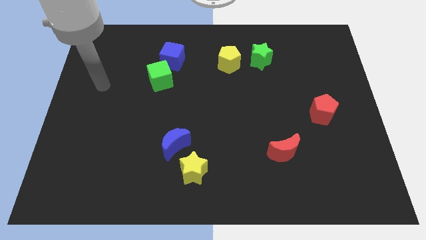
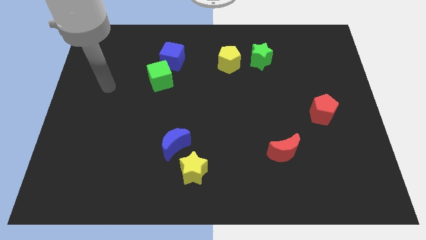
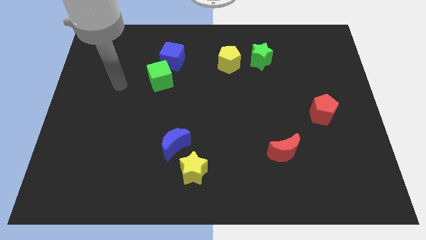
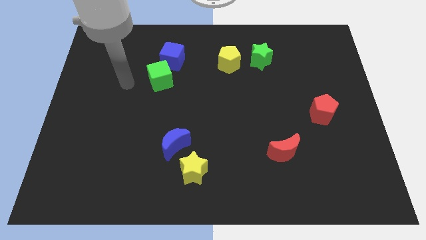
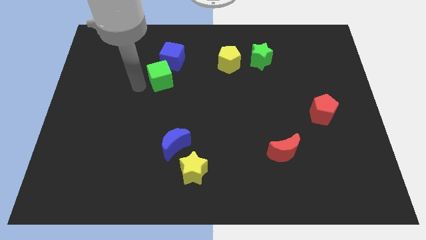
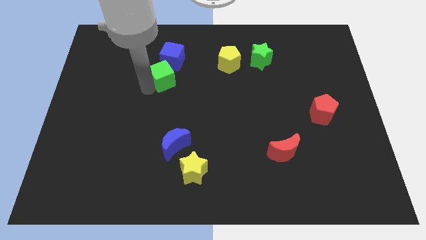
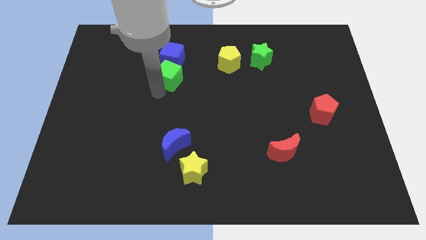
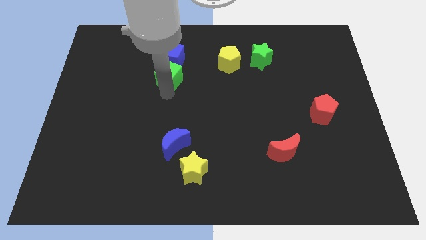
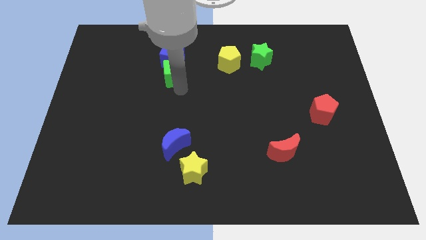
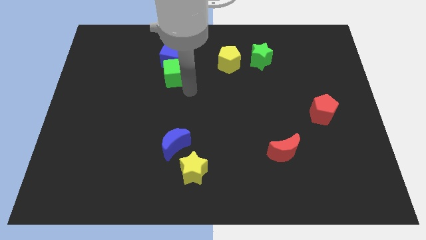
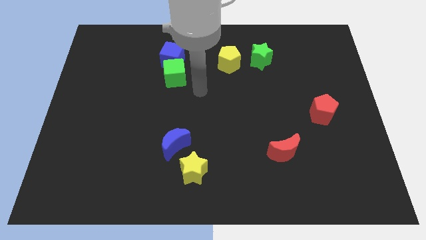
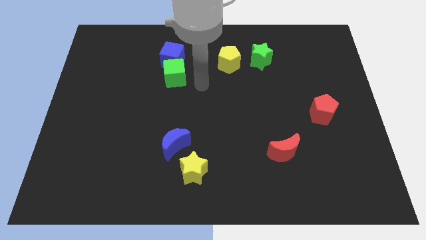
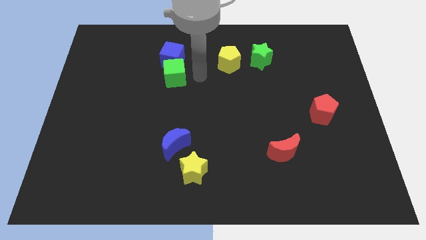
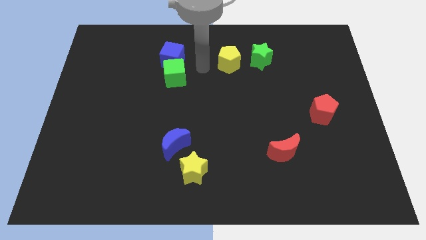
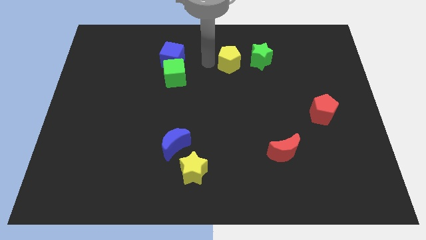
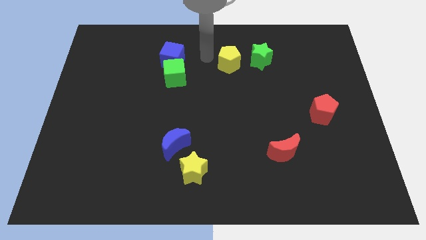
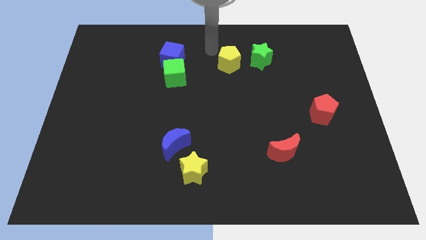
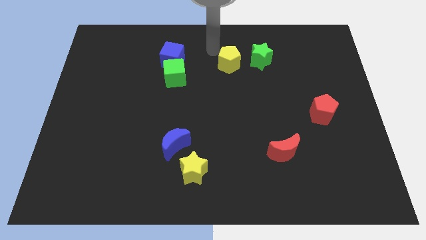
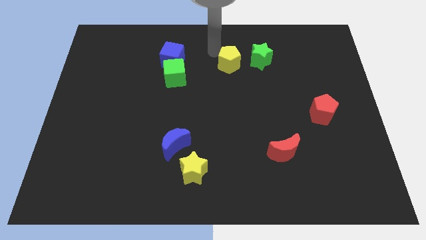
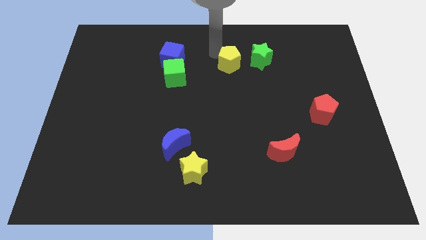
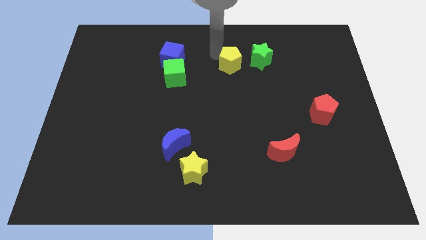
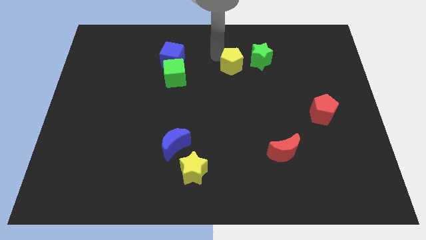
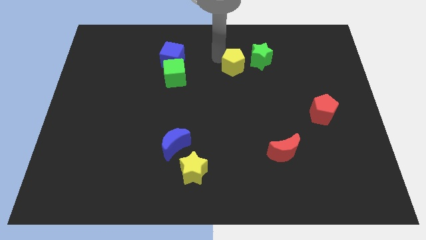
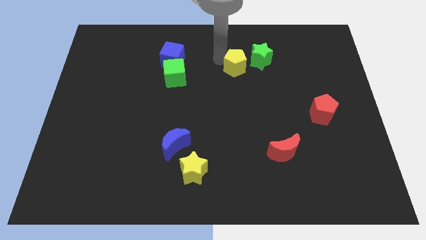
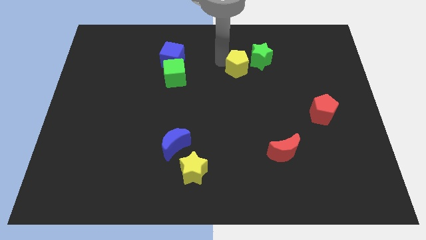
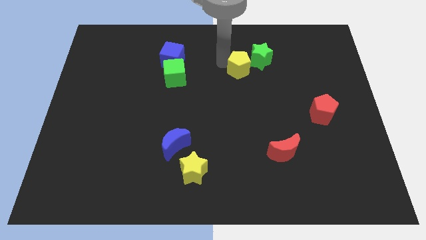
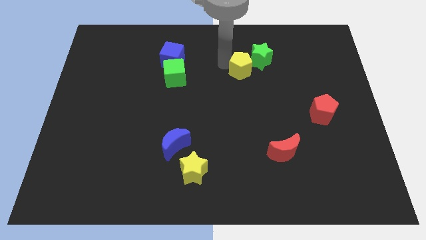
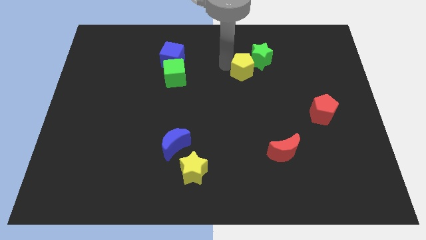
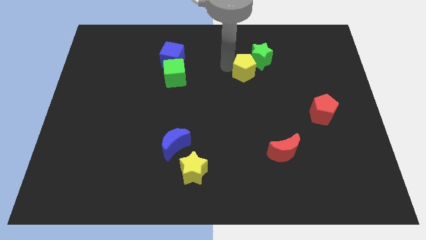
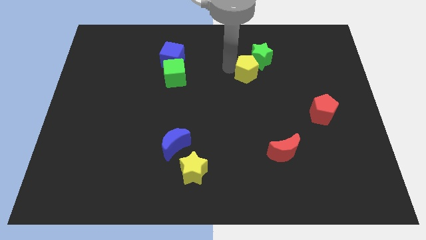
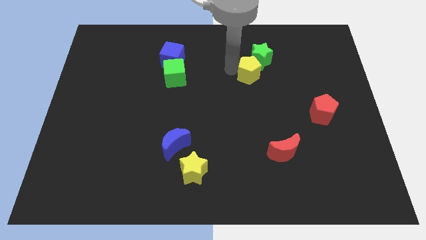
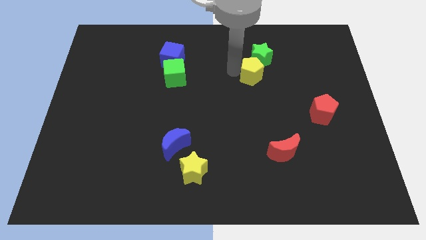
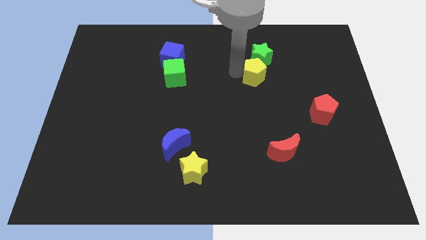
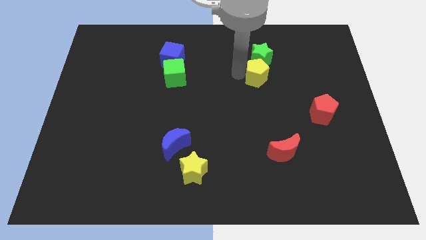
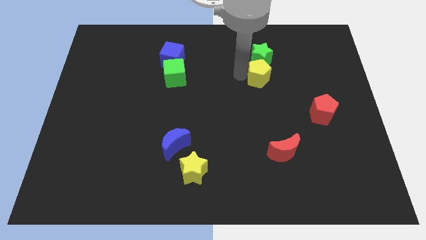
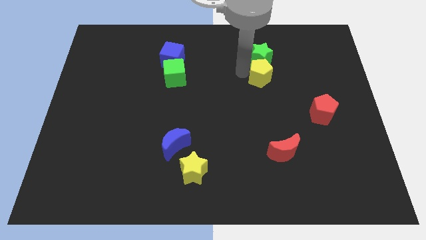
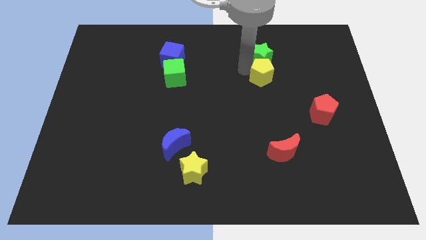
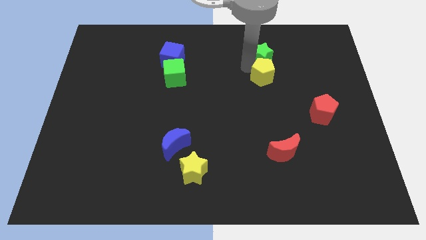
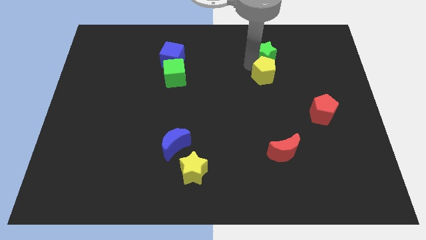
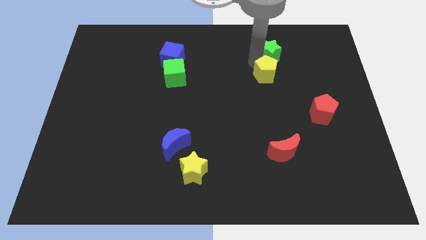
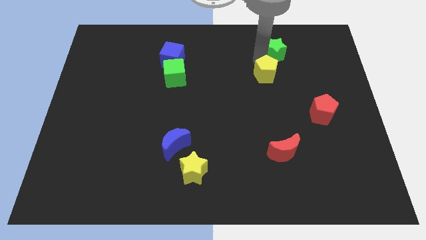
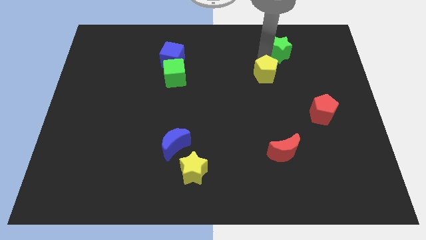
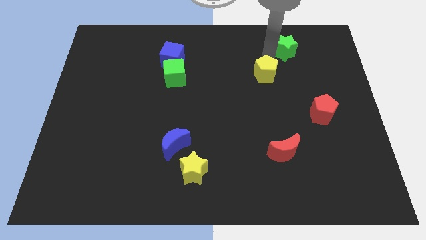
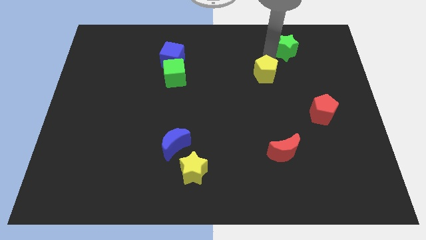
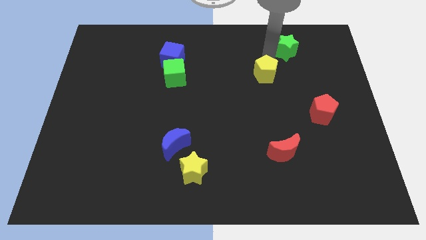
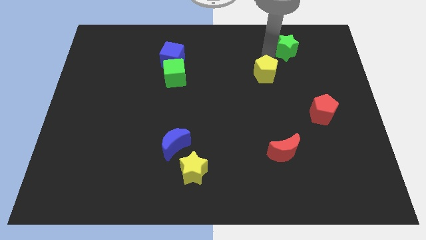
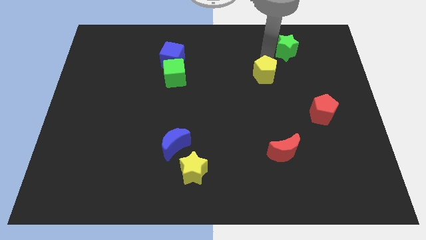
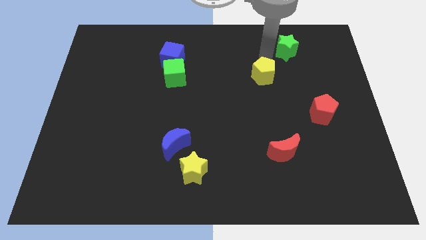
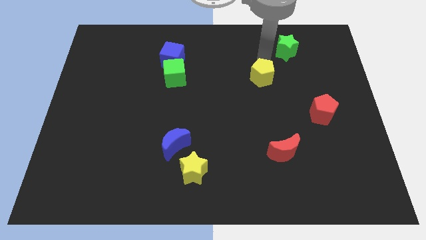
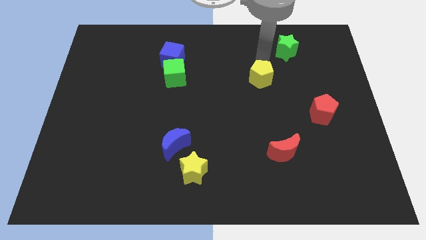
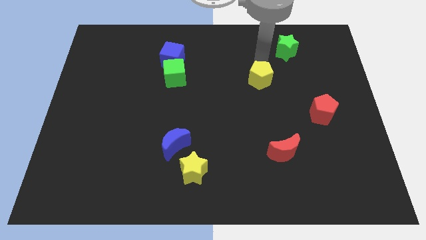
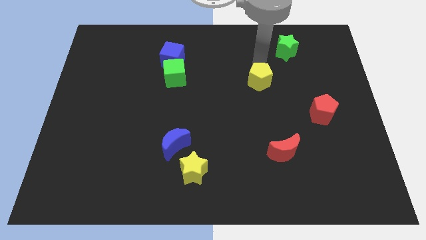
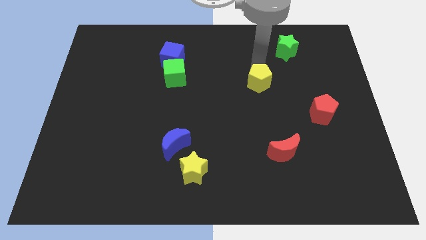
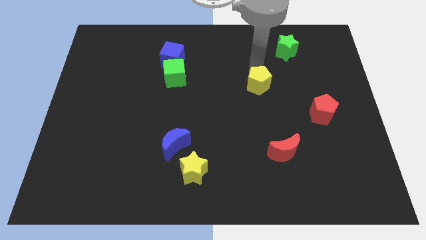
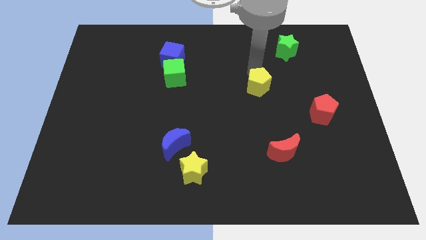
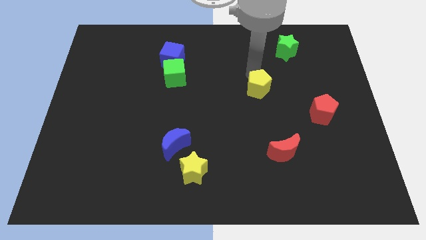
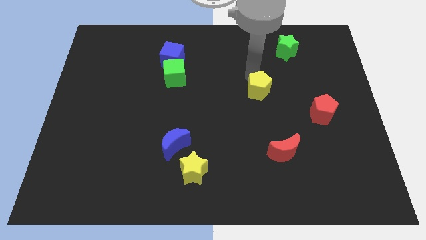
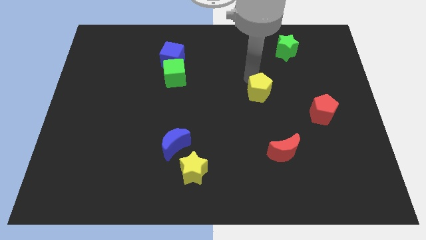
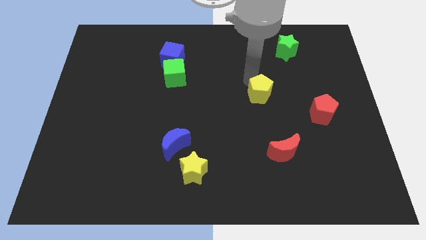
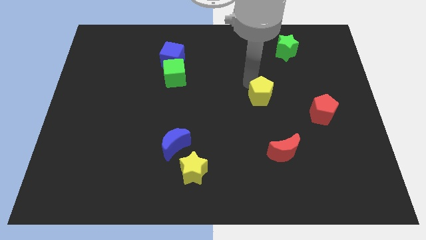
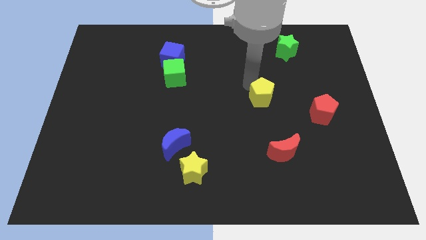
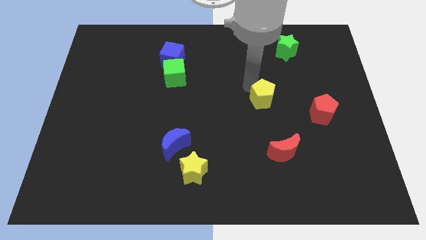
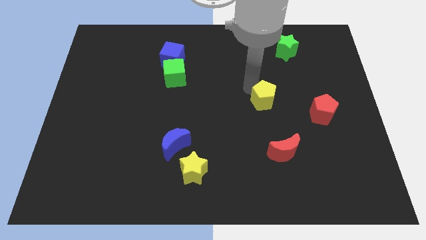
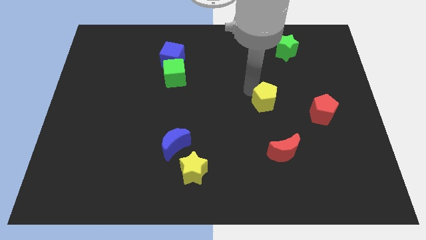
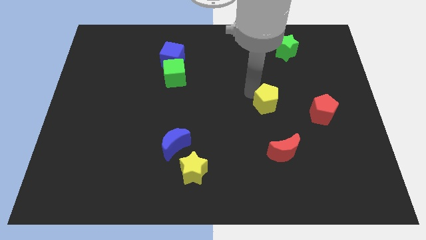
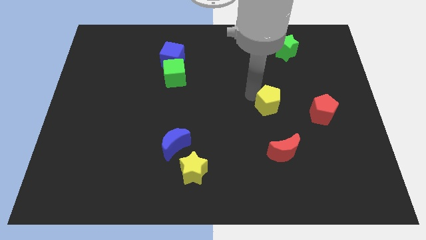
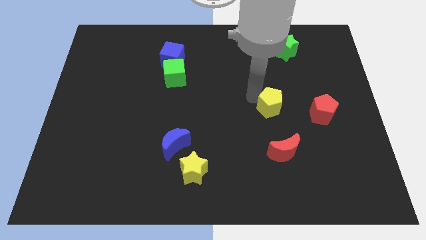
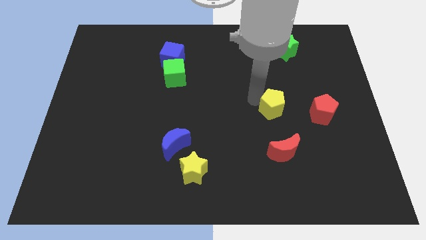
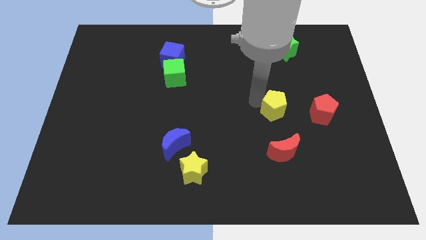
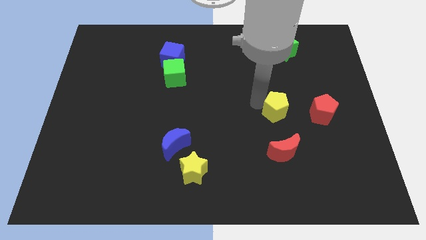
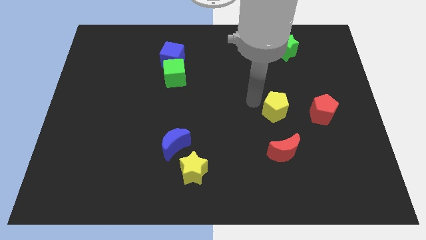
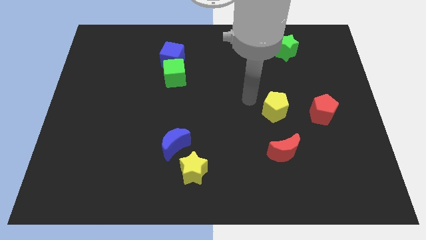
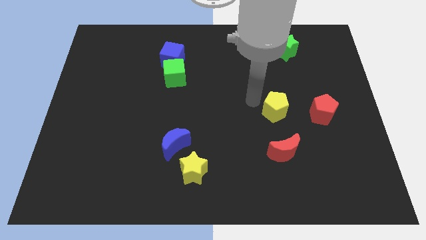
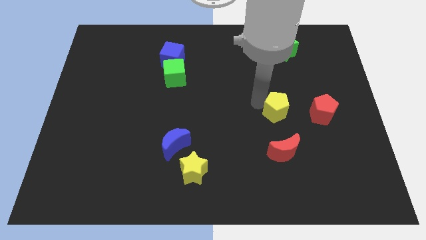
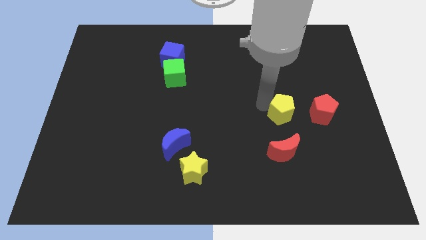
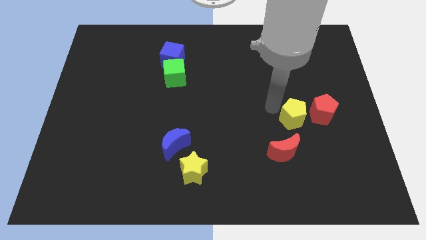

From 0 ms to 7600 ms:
slide the yellow pentagon diagonally downwards and right

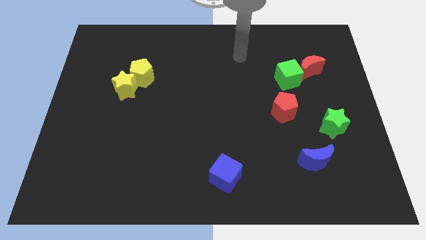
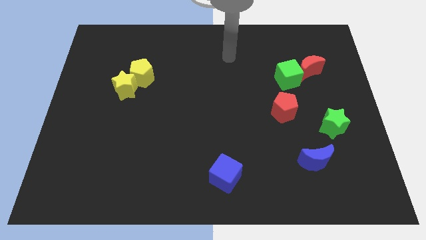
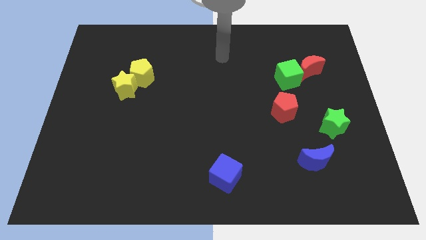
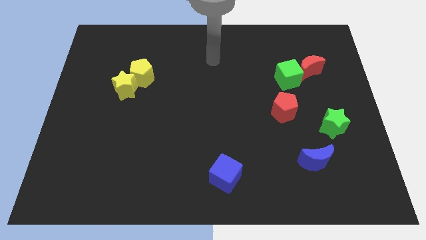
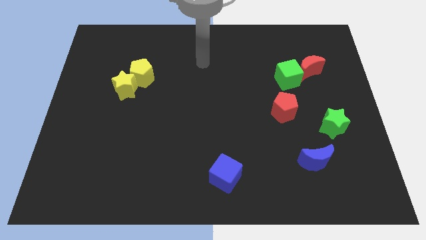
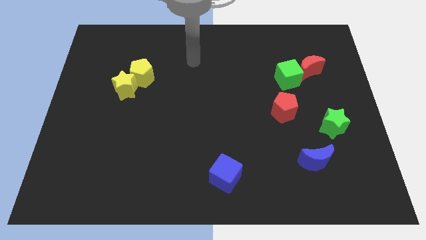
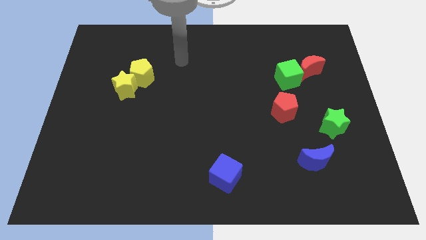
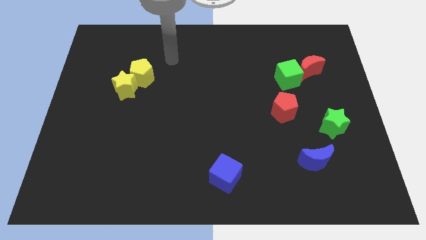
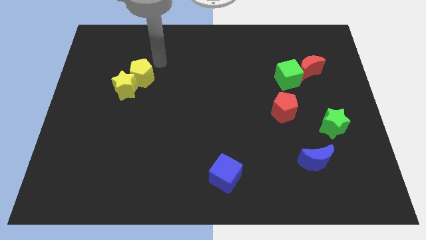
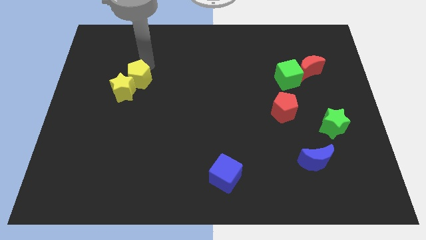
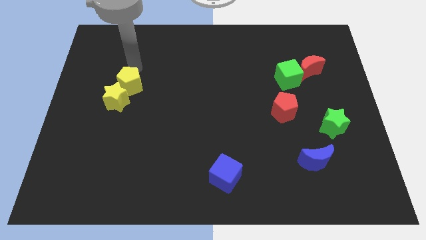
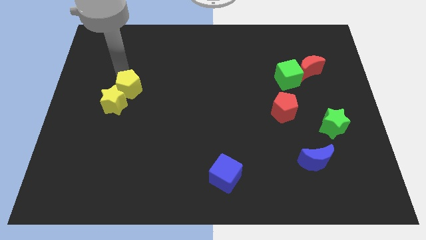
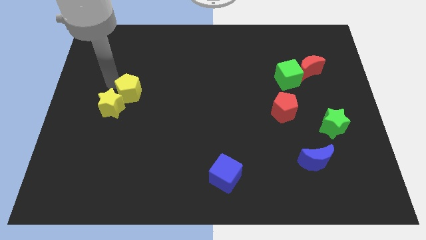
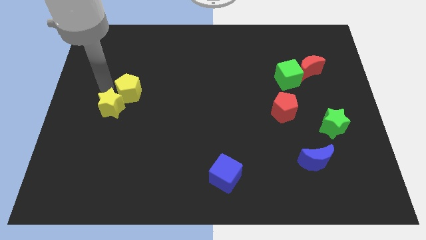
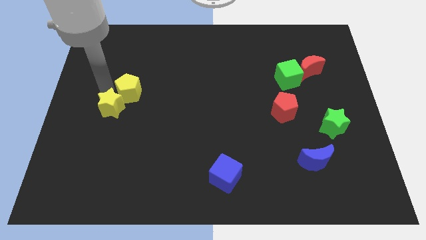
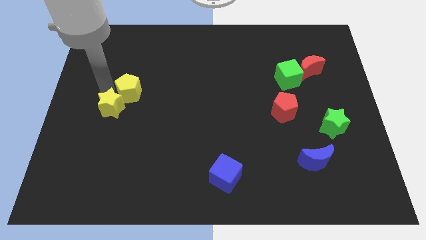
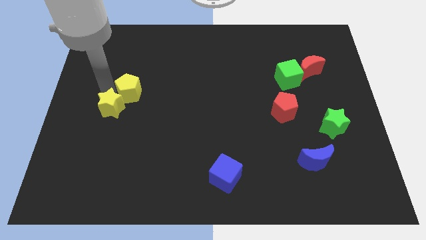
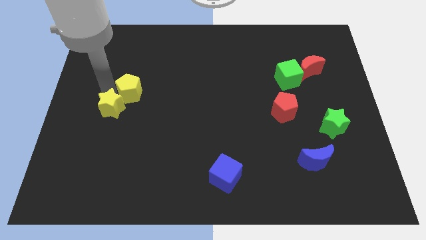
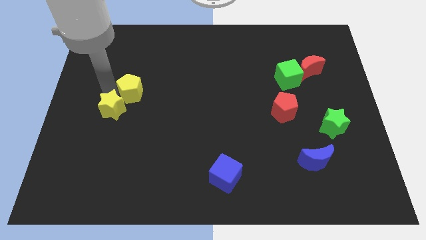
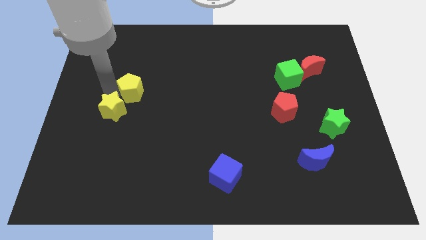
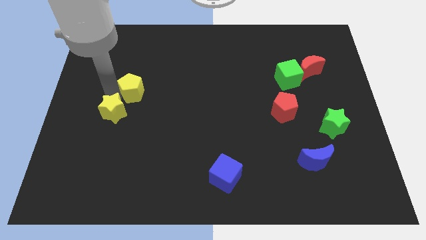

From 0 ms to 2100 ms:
push the yellow star a little bit downwards
